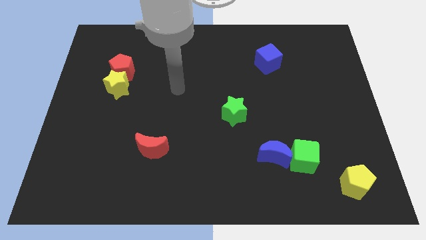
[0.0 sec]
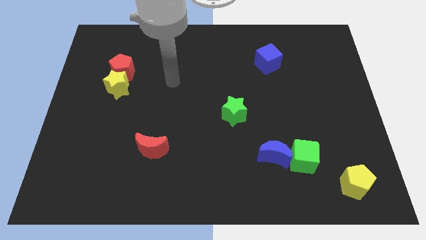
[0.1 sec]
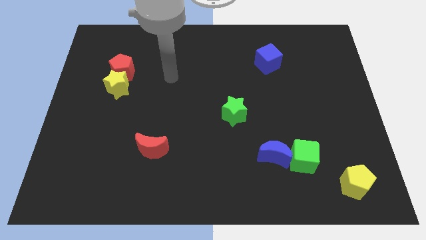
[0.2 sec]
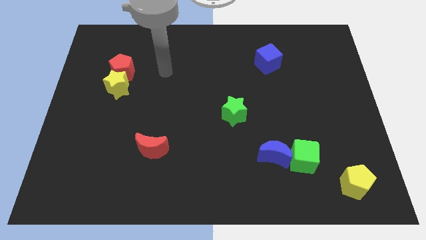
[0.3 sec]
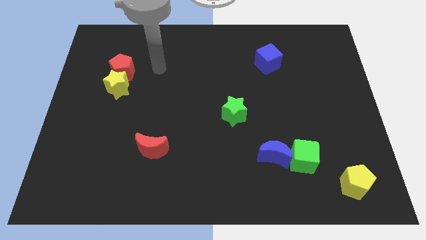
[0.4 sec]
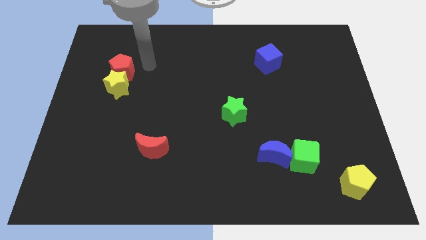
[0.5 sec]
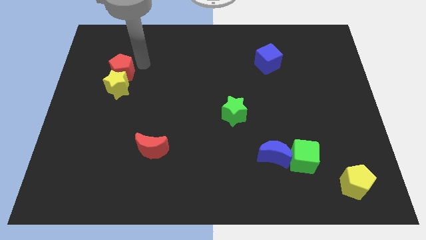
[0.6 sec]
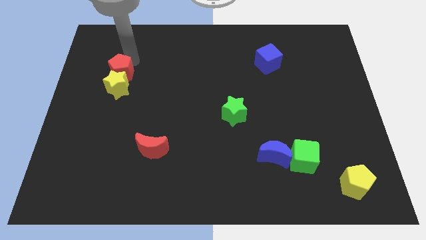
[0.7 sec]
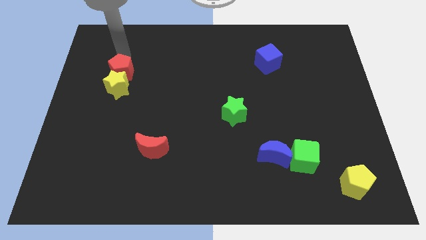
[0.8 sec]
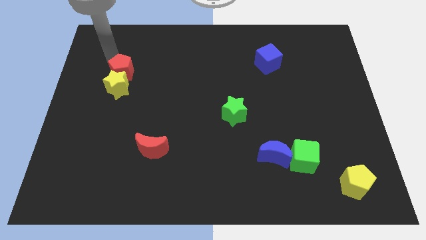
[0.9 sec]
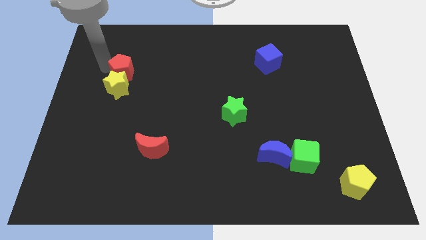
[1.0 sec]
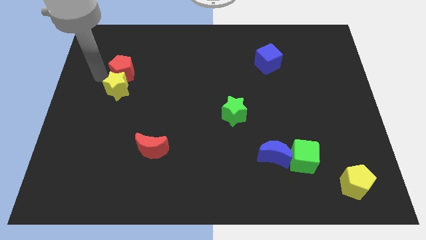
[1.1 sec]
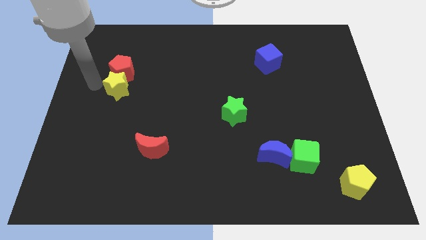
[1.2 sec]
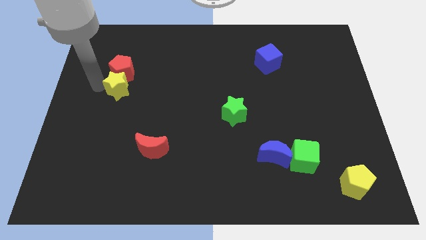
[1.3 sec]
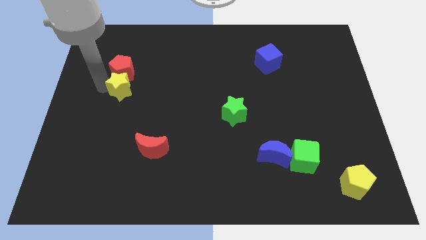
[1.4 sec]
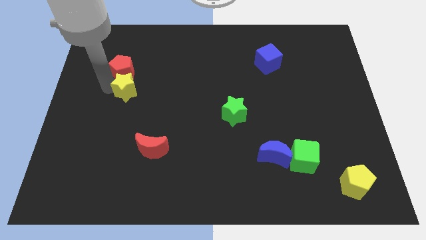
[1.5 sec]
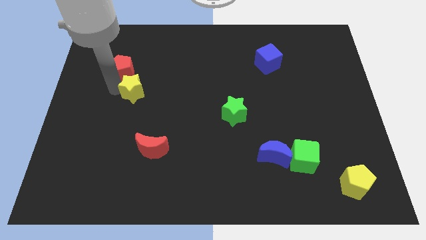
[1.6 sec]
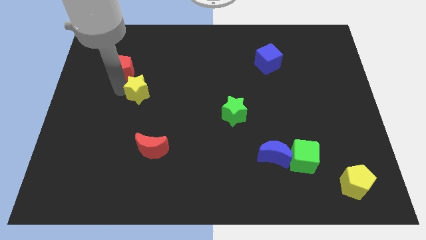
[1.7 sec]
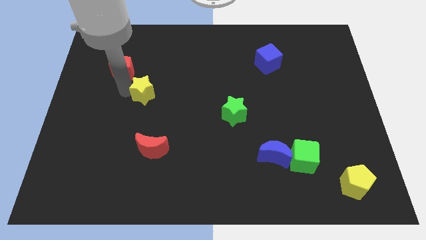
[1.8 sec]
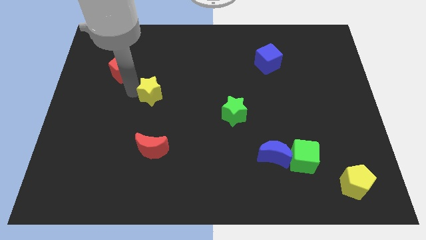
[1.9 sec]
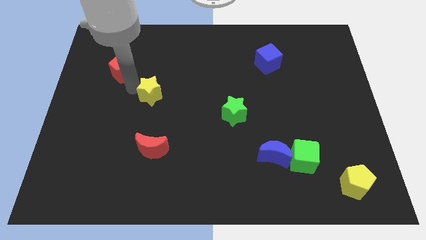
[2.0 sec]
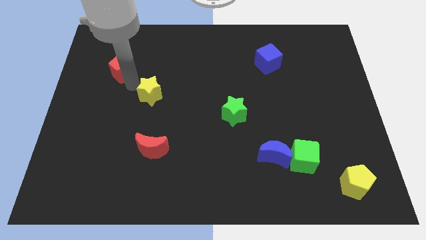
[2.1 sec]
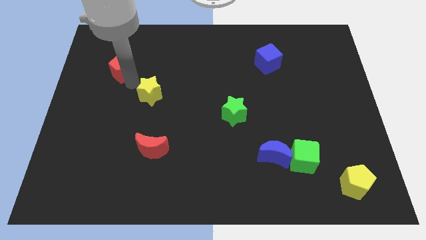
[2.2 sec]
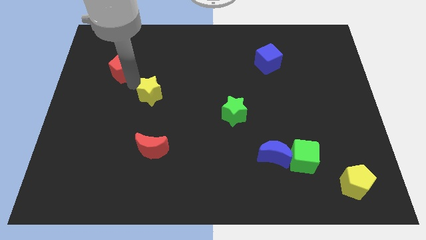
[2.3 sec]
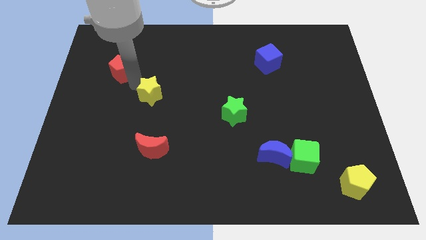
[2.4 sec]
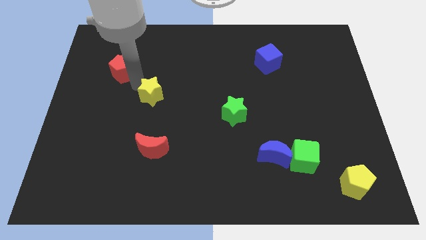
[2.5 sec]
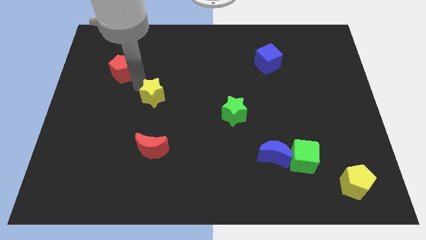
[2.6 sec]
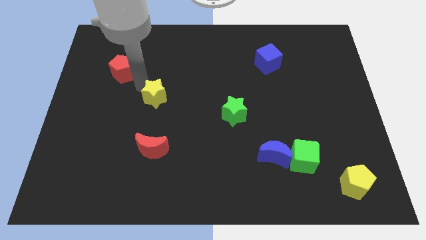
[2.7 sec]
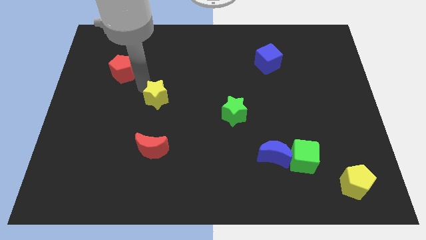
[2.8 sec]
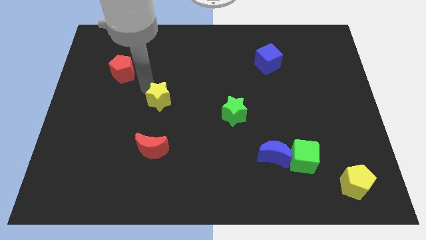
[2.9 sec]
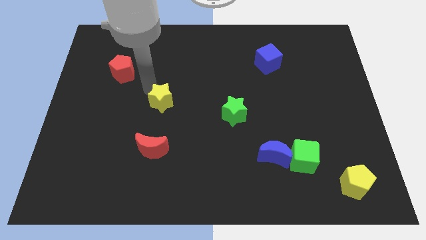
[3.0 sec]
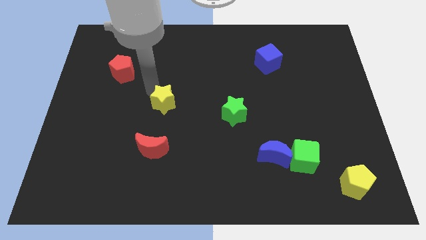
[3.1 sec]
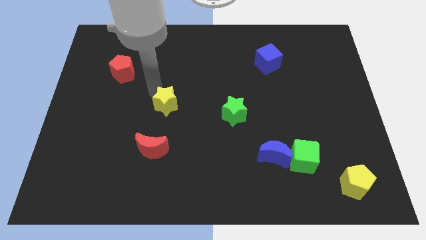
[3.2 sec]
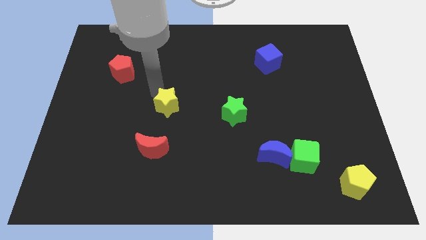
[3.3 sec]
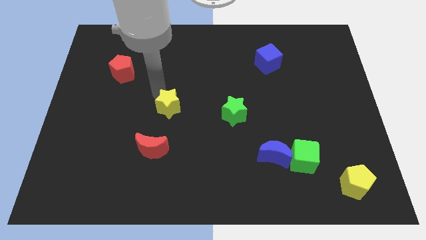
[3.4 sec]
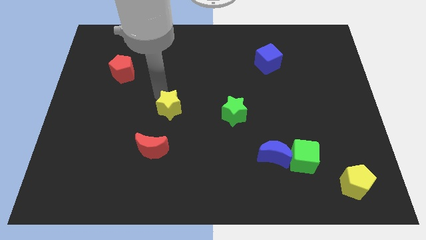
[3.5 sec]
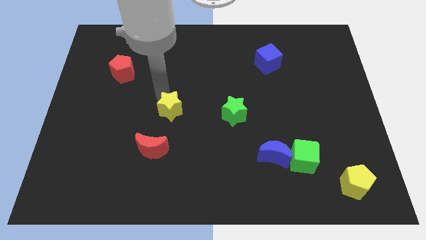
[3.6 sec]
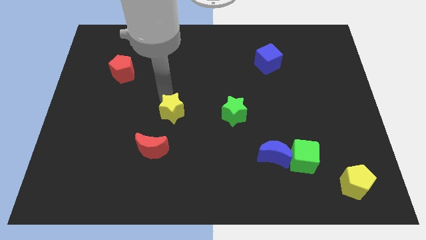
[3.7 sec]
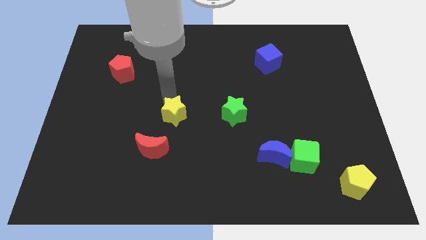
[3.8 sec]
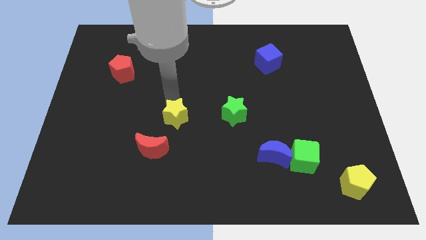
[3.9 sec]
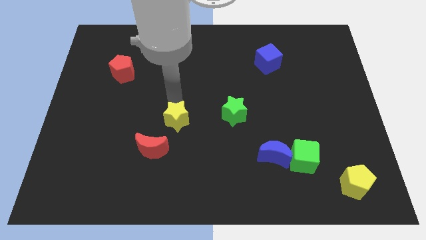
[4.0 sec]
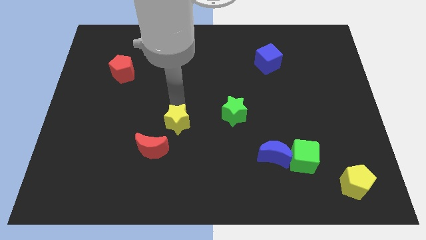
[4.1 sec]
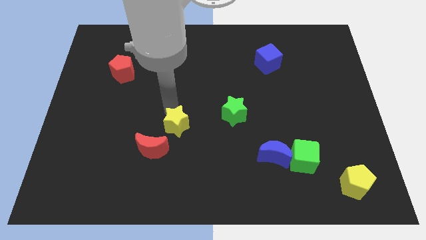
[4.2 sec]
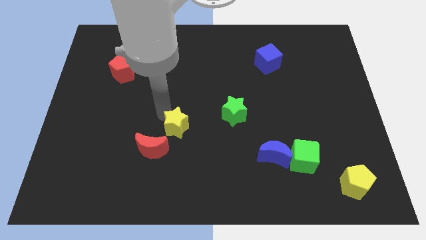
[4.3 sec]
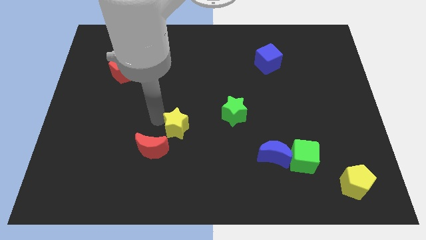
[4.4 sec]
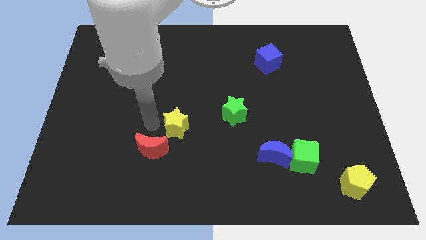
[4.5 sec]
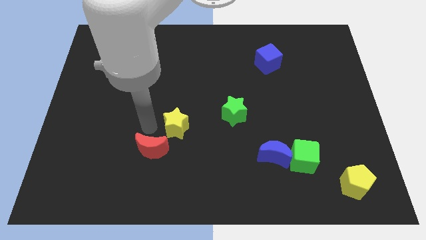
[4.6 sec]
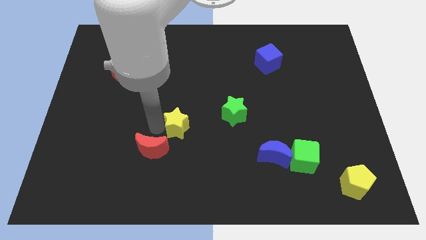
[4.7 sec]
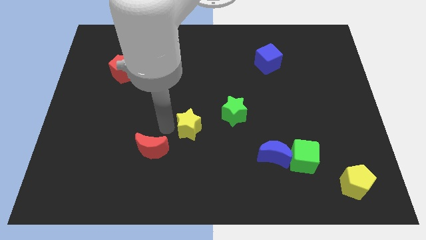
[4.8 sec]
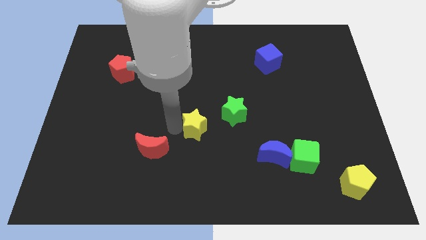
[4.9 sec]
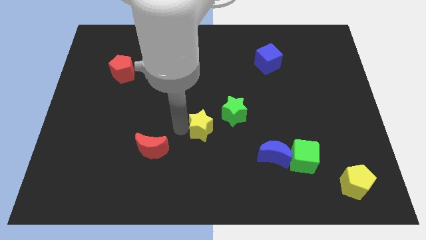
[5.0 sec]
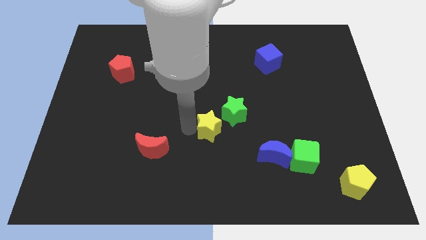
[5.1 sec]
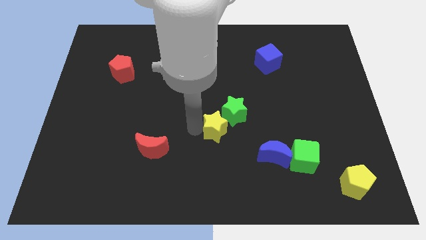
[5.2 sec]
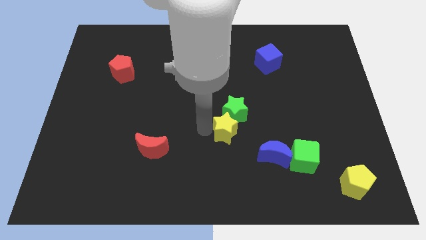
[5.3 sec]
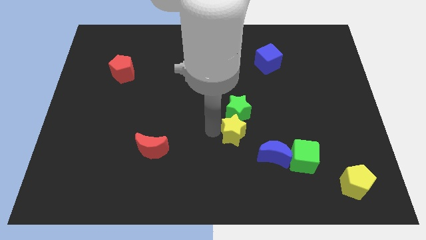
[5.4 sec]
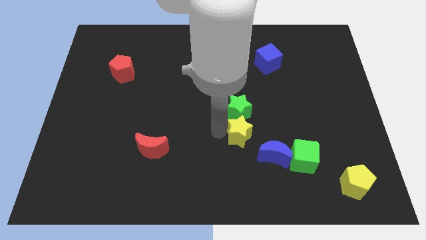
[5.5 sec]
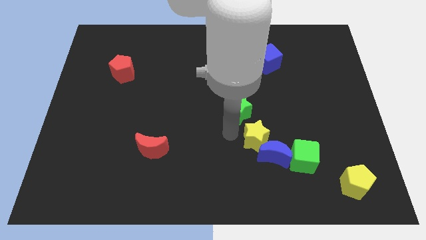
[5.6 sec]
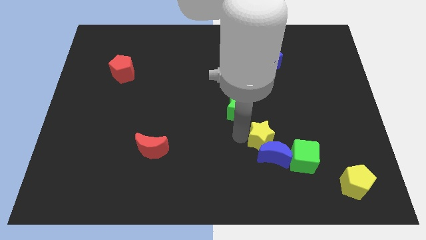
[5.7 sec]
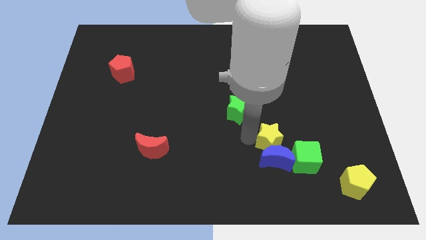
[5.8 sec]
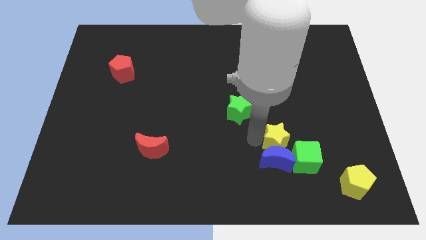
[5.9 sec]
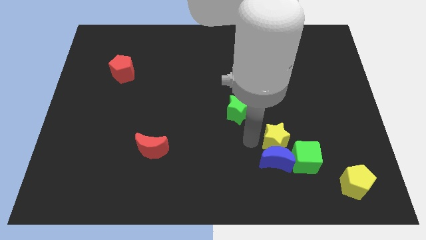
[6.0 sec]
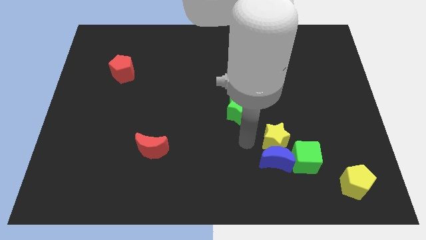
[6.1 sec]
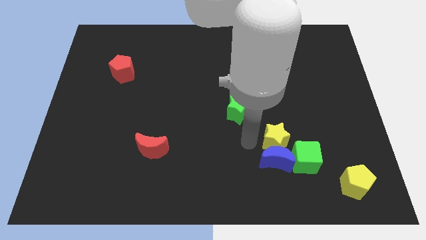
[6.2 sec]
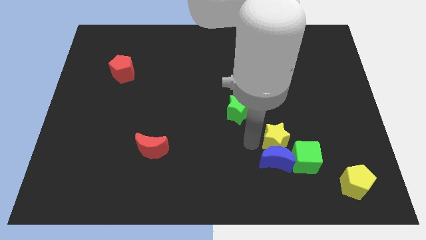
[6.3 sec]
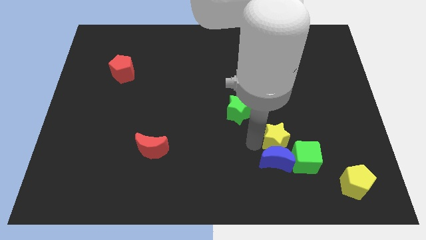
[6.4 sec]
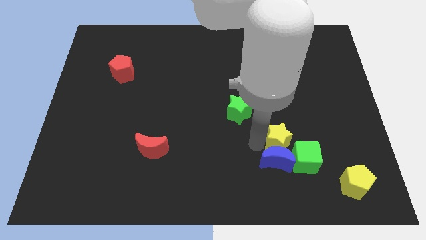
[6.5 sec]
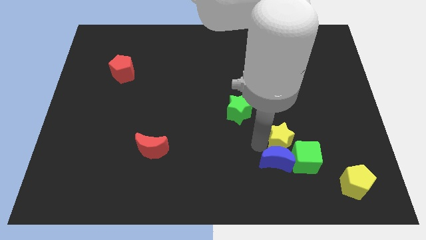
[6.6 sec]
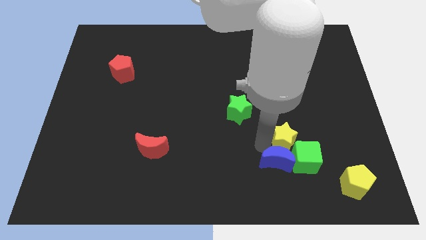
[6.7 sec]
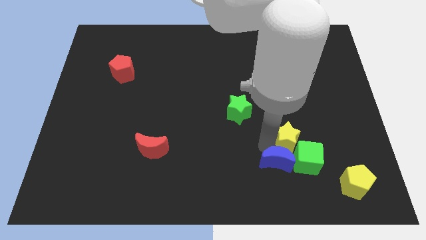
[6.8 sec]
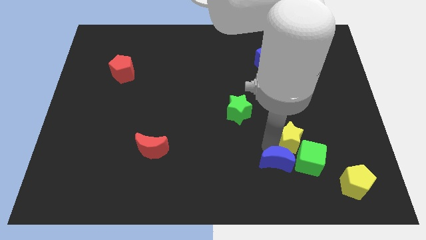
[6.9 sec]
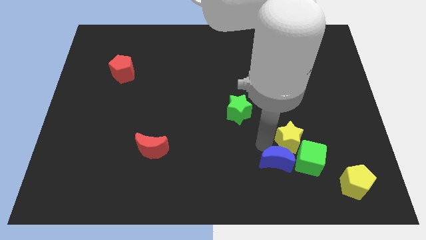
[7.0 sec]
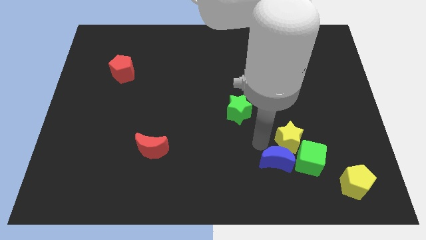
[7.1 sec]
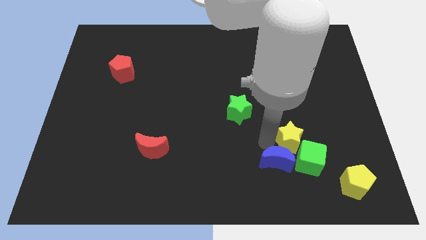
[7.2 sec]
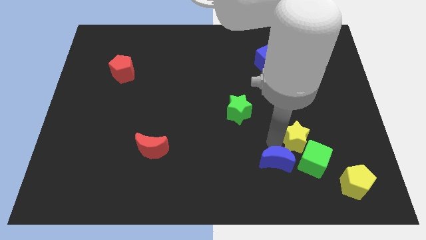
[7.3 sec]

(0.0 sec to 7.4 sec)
slide the yellow star to the right of the blue moon
